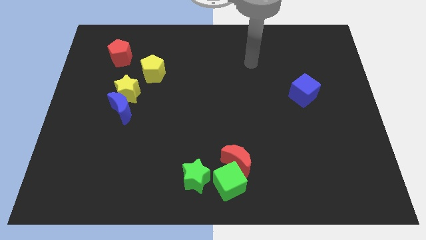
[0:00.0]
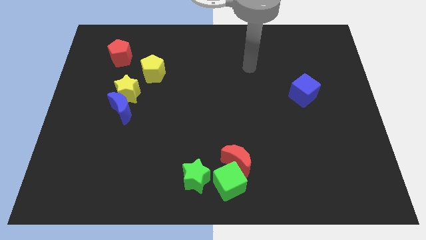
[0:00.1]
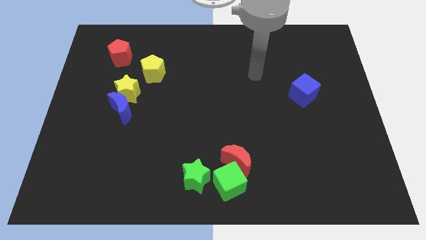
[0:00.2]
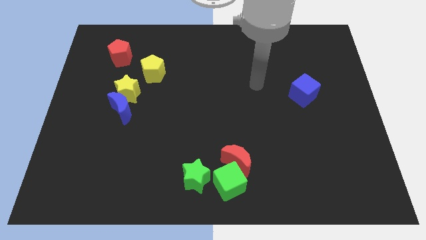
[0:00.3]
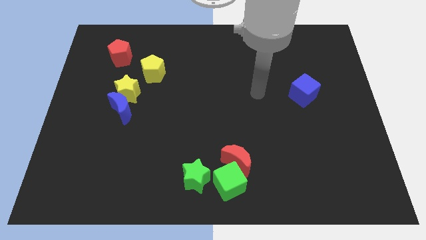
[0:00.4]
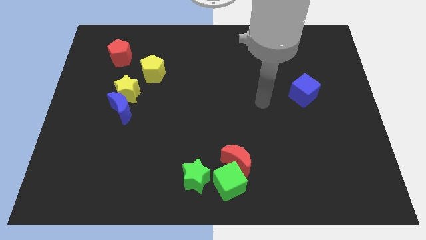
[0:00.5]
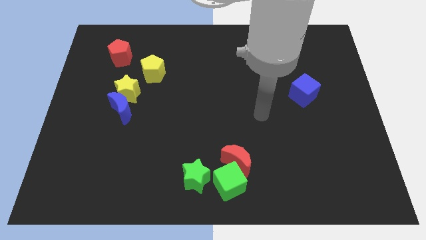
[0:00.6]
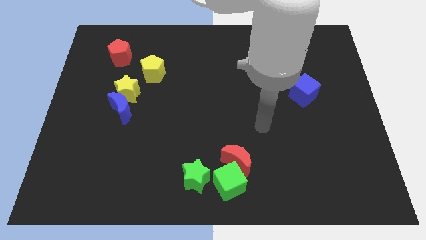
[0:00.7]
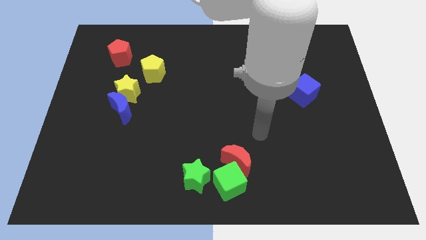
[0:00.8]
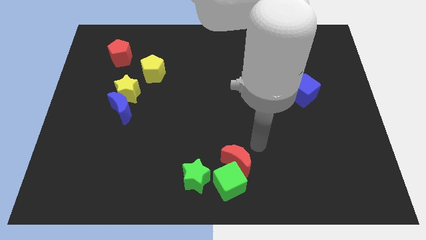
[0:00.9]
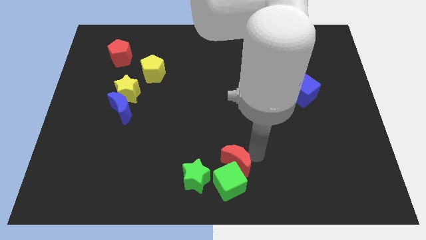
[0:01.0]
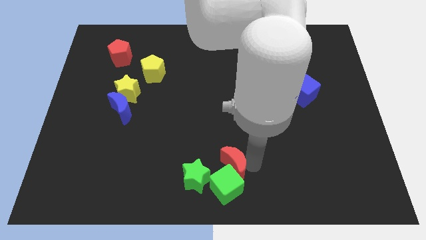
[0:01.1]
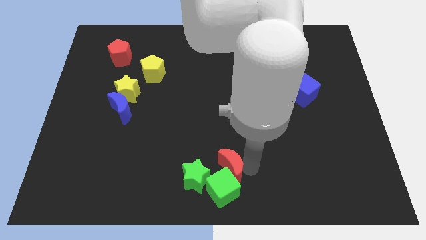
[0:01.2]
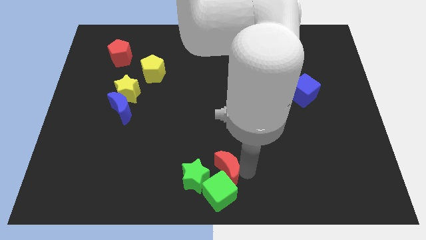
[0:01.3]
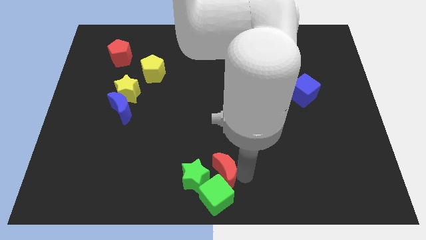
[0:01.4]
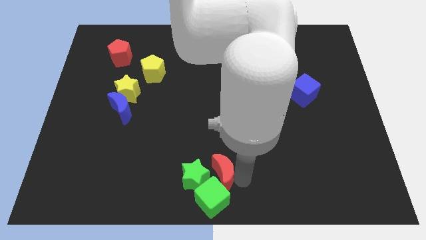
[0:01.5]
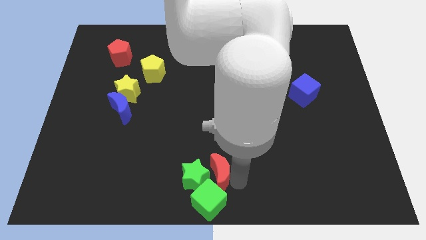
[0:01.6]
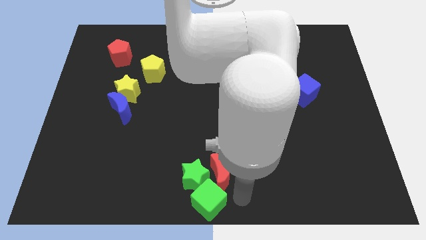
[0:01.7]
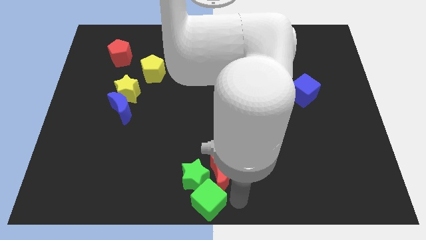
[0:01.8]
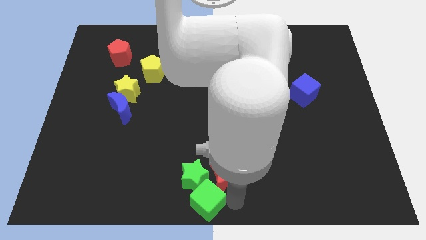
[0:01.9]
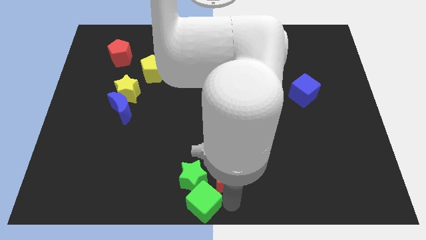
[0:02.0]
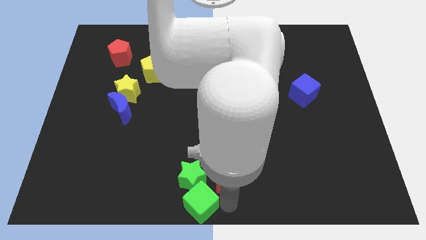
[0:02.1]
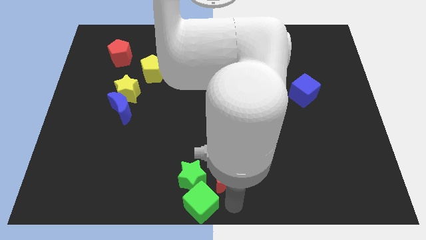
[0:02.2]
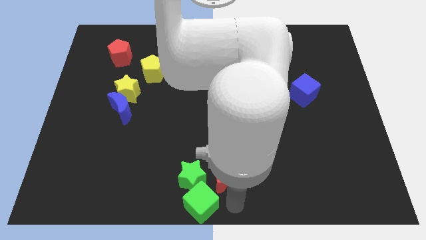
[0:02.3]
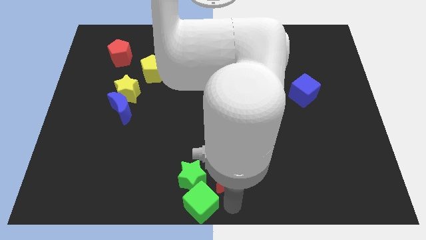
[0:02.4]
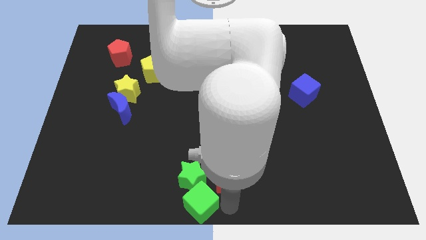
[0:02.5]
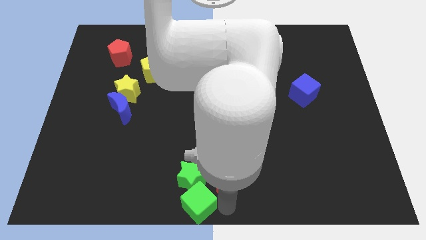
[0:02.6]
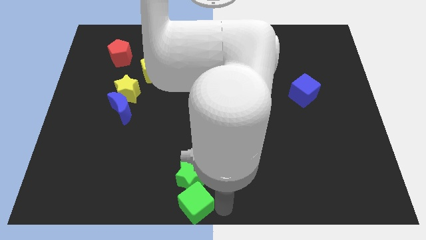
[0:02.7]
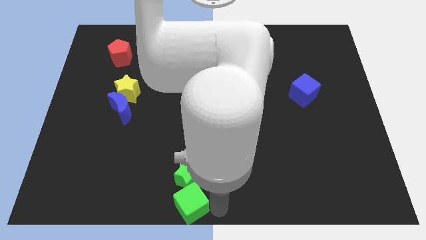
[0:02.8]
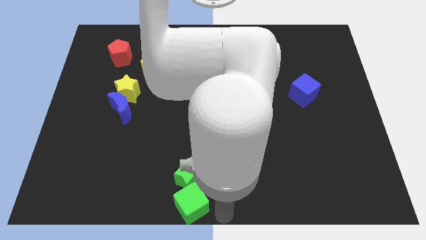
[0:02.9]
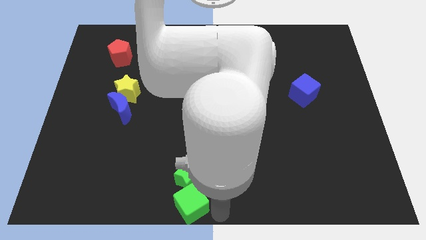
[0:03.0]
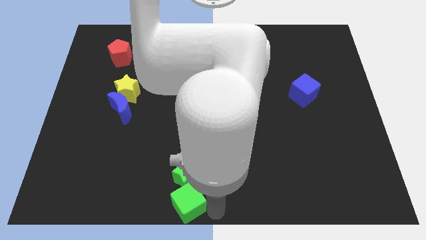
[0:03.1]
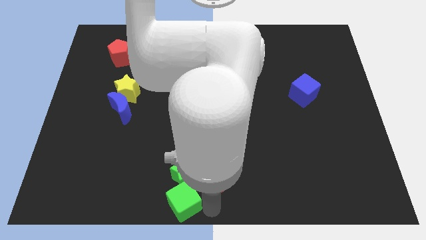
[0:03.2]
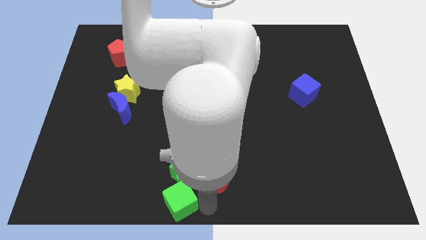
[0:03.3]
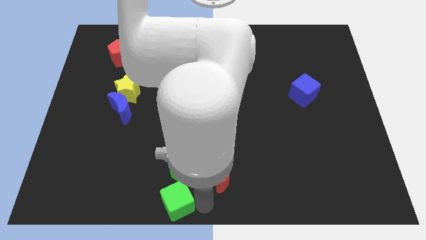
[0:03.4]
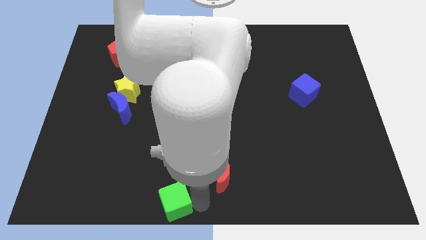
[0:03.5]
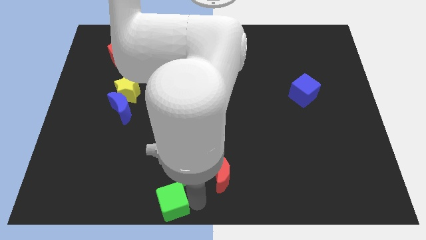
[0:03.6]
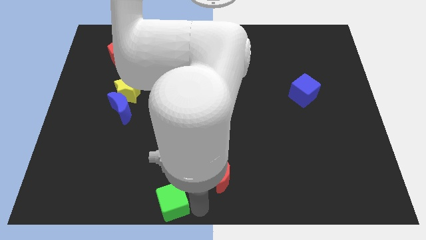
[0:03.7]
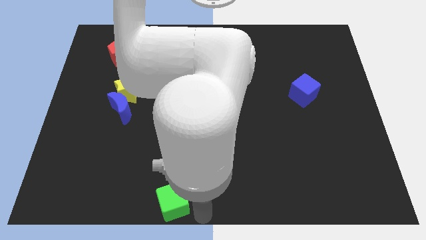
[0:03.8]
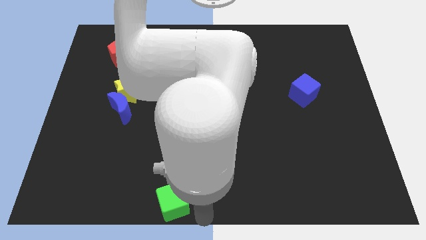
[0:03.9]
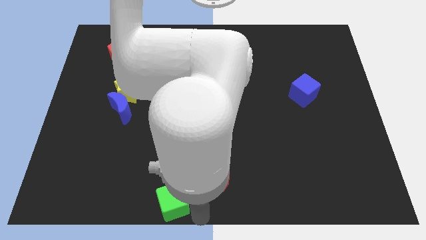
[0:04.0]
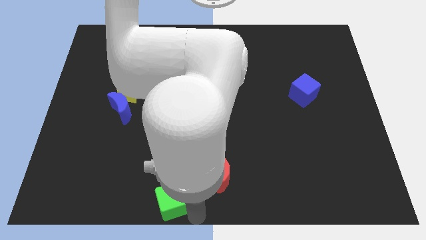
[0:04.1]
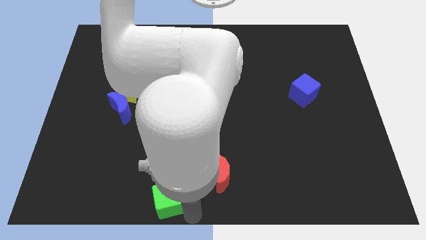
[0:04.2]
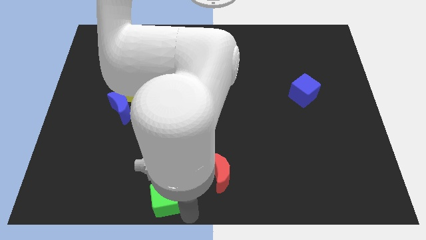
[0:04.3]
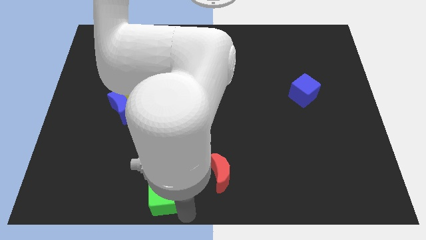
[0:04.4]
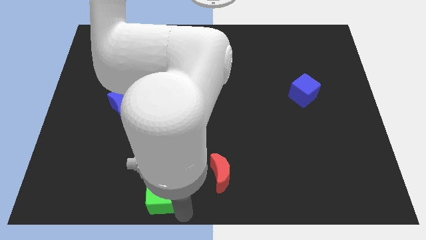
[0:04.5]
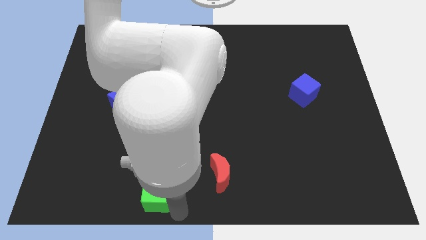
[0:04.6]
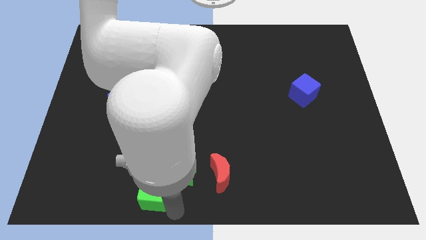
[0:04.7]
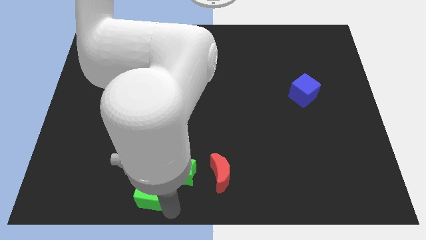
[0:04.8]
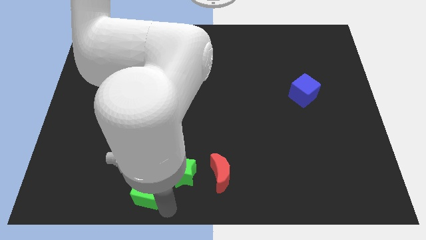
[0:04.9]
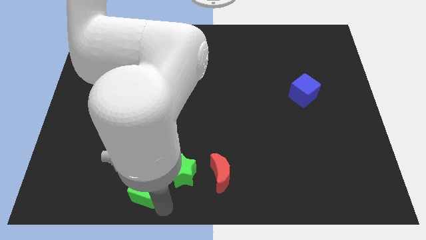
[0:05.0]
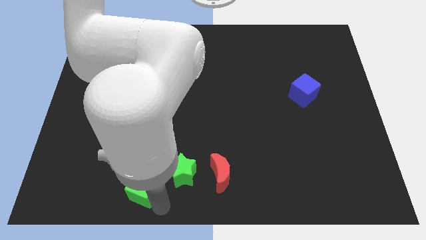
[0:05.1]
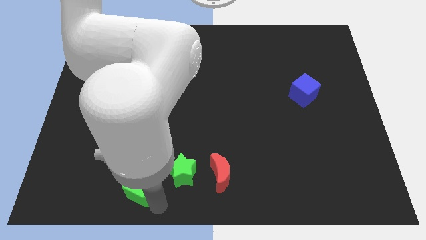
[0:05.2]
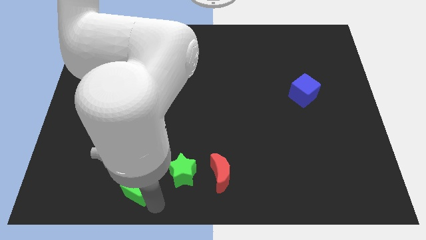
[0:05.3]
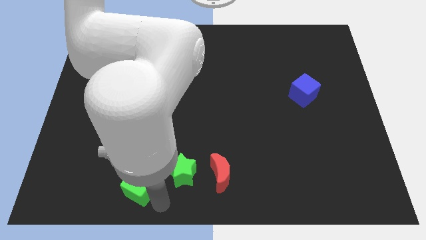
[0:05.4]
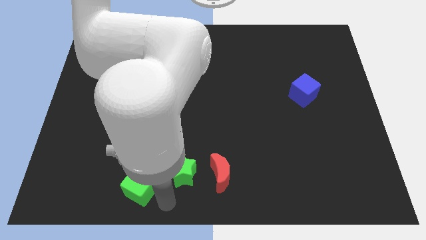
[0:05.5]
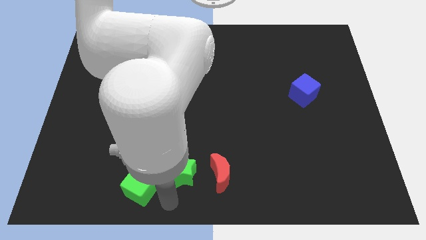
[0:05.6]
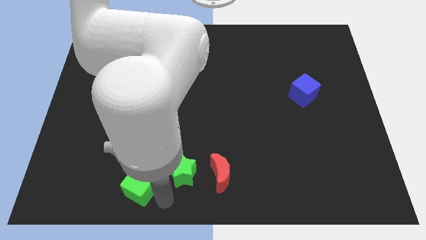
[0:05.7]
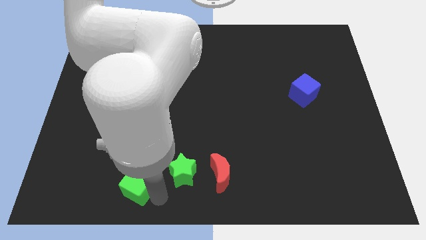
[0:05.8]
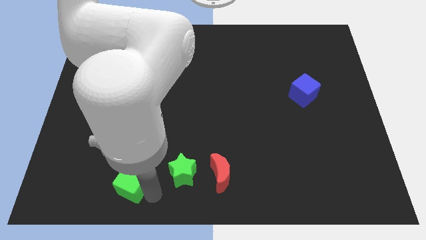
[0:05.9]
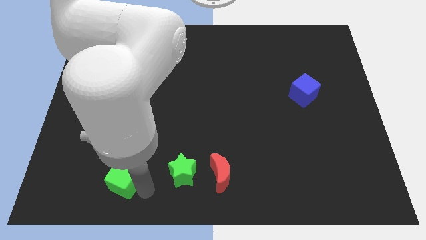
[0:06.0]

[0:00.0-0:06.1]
slide the green cube to the left

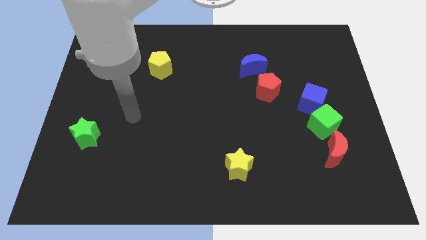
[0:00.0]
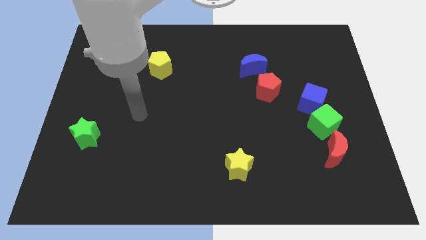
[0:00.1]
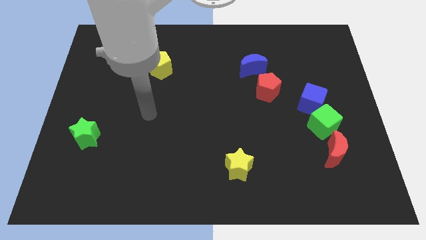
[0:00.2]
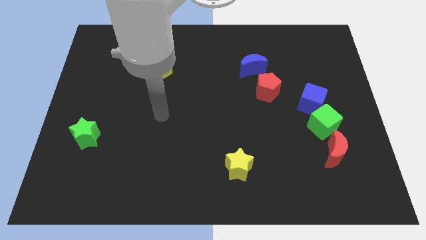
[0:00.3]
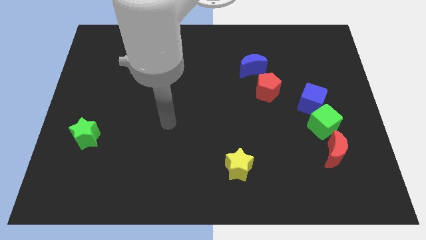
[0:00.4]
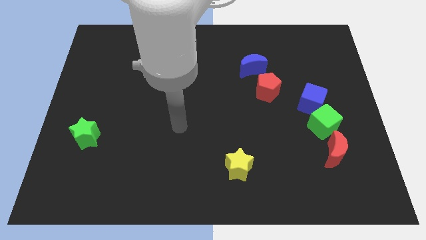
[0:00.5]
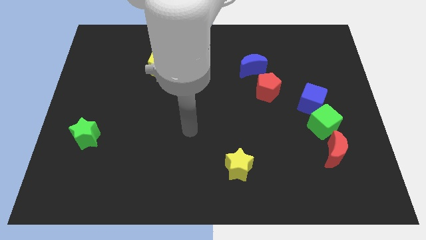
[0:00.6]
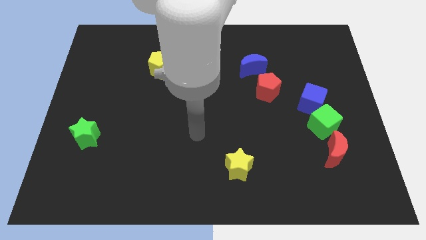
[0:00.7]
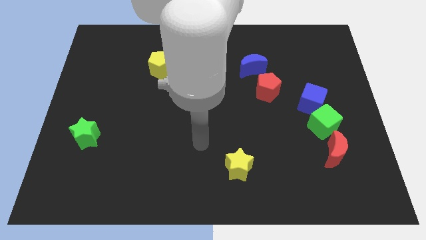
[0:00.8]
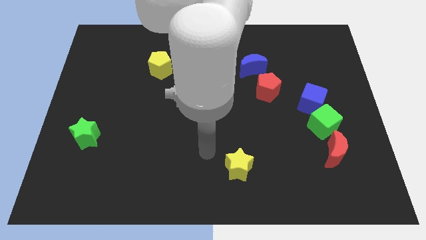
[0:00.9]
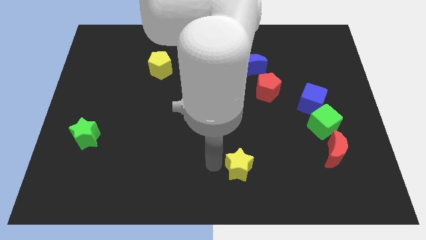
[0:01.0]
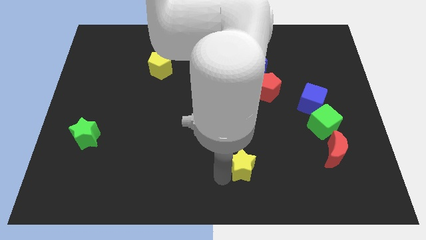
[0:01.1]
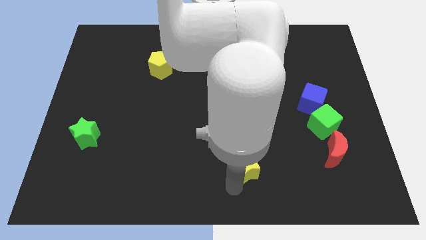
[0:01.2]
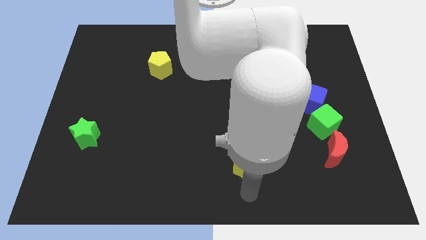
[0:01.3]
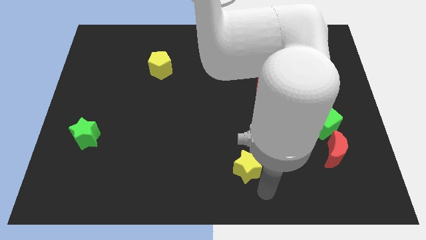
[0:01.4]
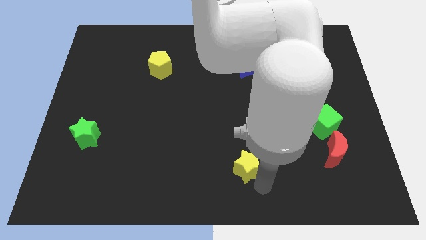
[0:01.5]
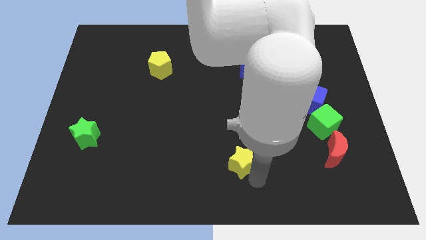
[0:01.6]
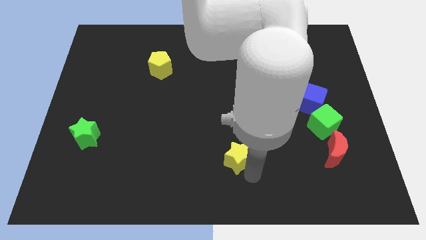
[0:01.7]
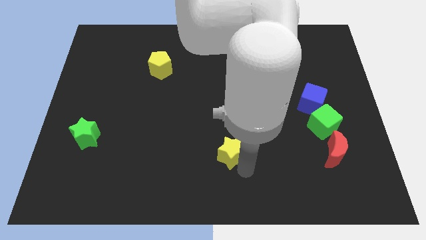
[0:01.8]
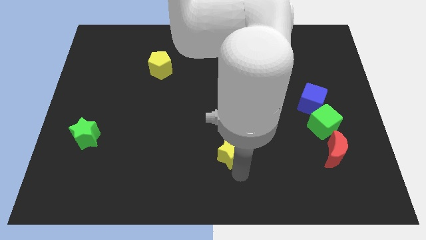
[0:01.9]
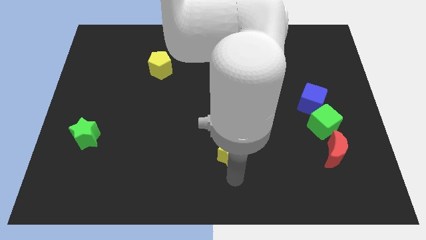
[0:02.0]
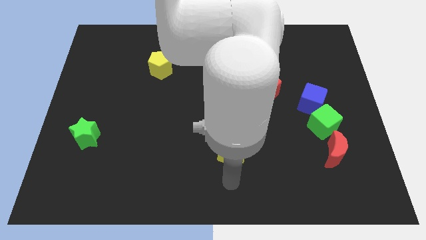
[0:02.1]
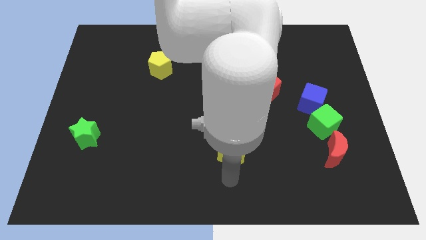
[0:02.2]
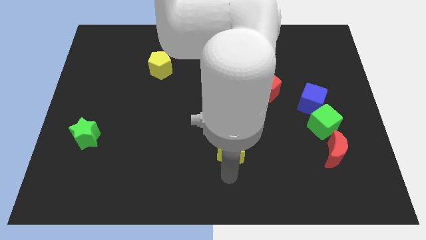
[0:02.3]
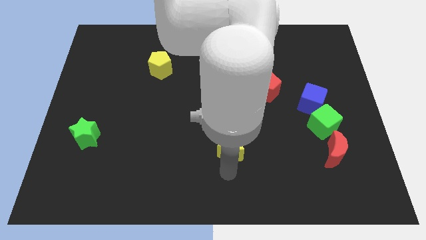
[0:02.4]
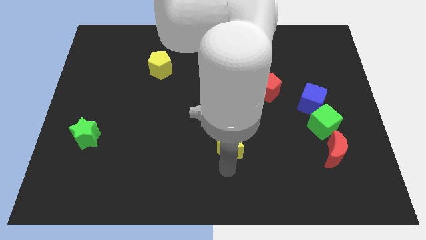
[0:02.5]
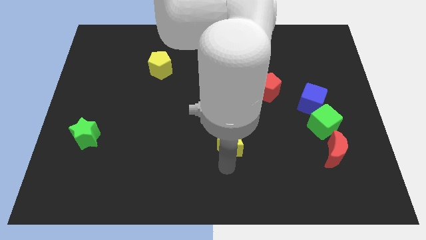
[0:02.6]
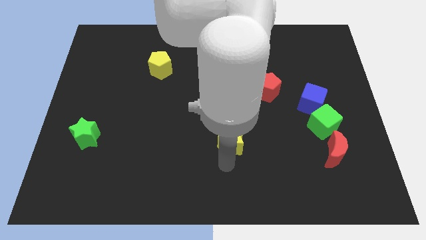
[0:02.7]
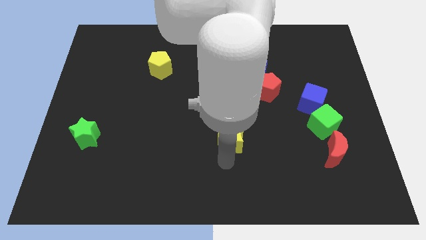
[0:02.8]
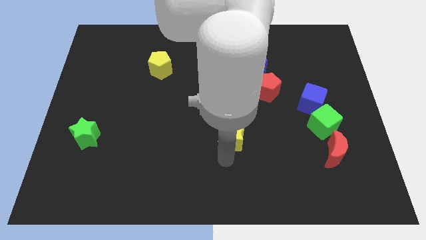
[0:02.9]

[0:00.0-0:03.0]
push the yellow star a little up
